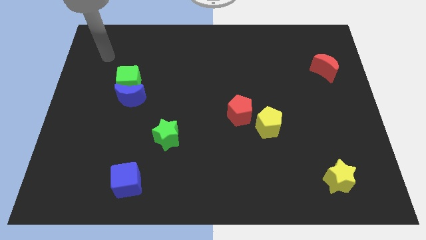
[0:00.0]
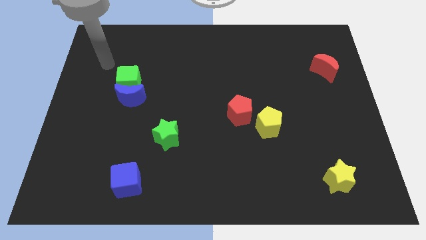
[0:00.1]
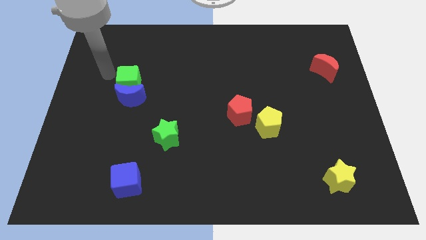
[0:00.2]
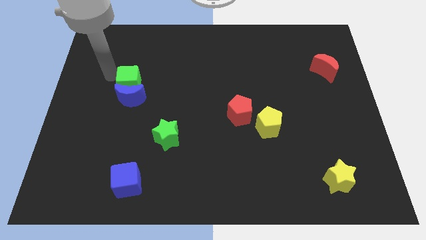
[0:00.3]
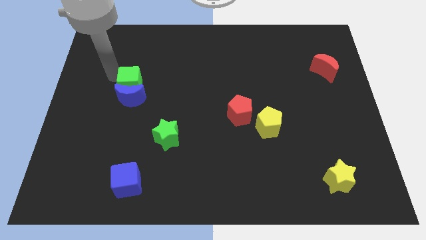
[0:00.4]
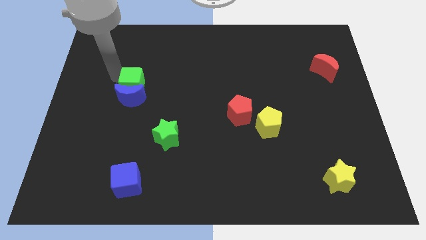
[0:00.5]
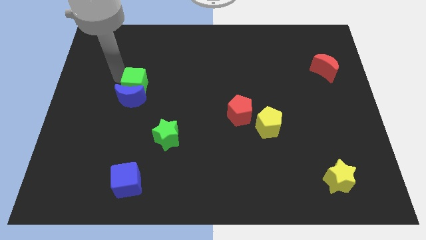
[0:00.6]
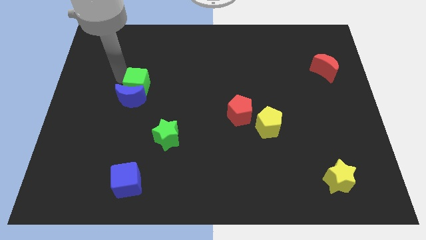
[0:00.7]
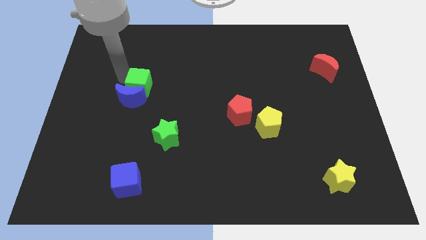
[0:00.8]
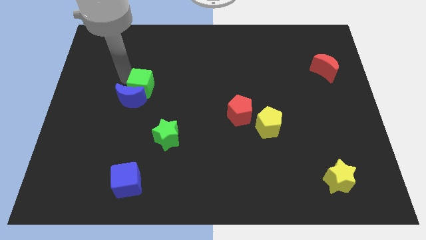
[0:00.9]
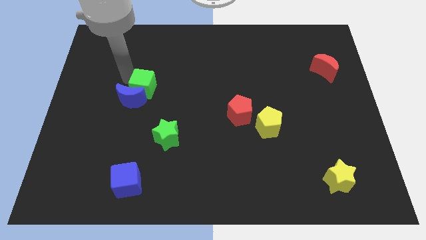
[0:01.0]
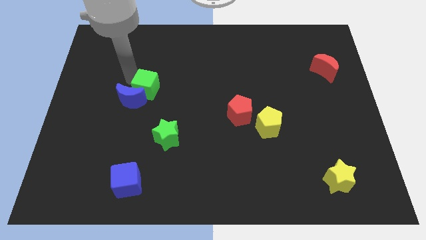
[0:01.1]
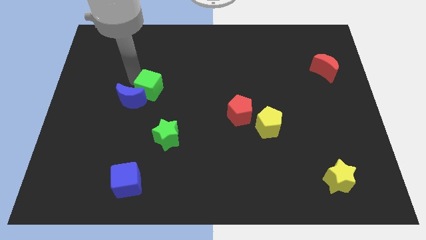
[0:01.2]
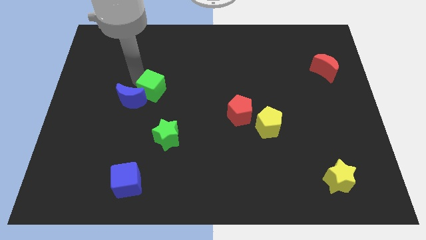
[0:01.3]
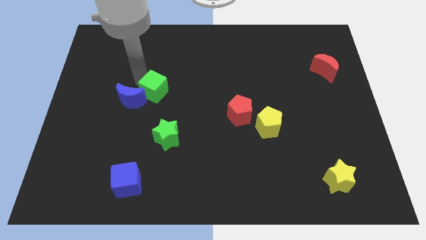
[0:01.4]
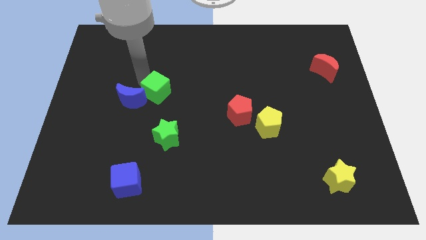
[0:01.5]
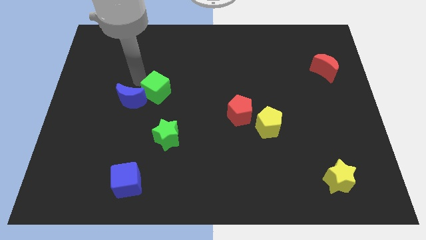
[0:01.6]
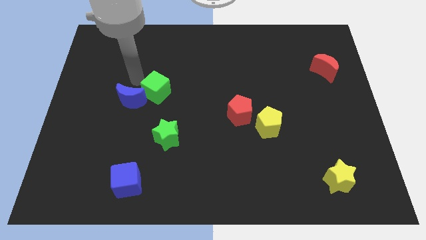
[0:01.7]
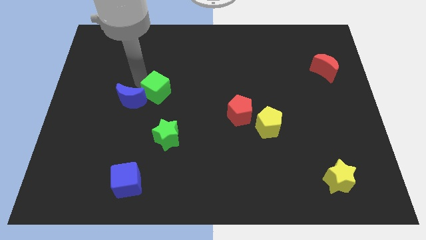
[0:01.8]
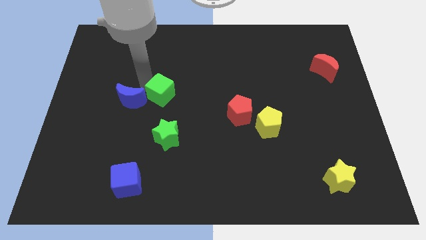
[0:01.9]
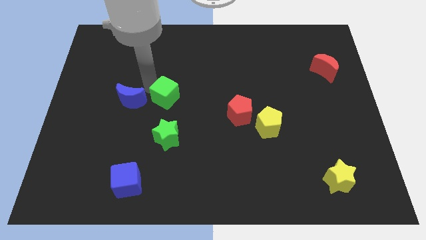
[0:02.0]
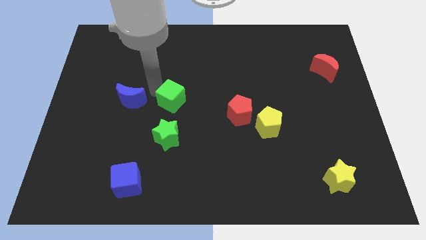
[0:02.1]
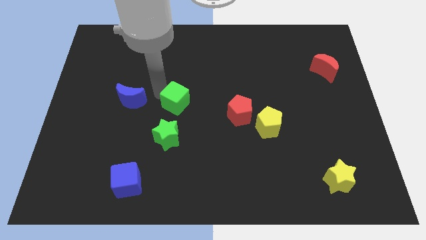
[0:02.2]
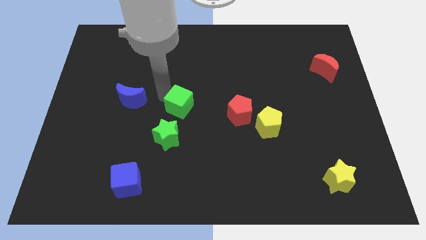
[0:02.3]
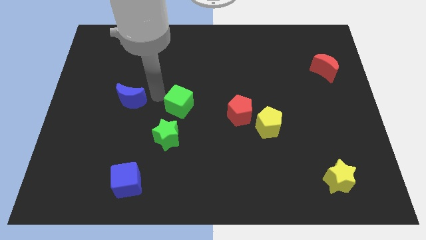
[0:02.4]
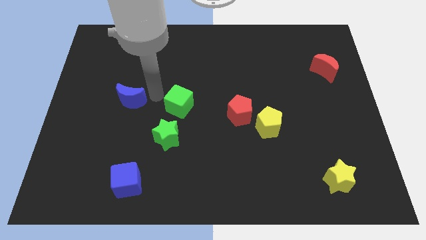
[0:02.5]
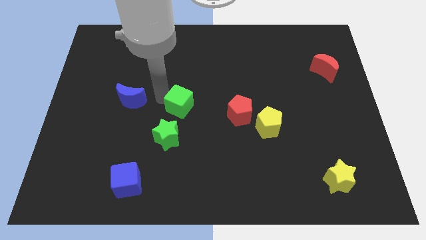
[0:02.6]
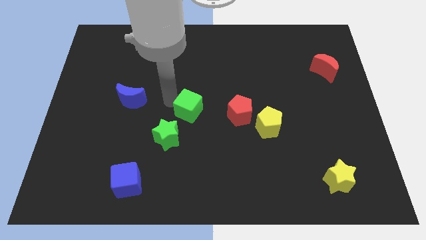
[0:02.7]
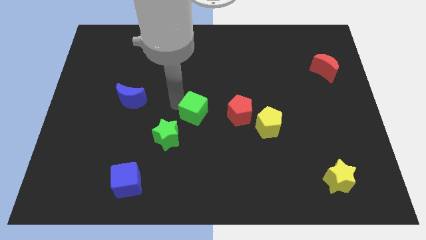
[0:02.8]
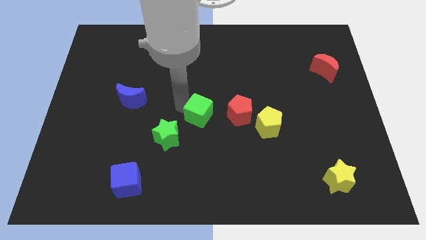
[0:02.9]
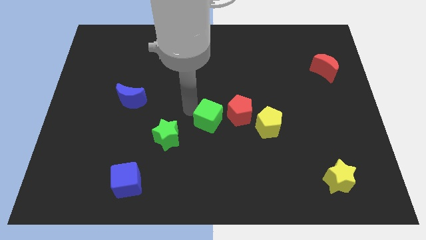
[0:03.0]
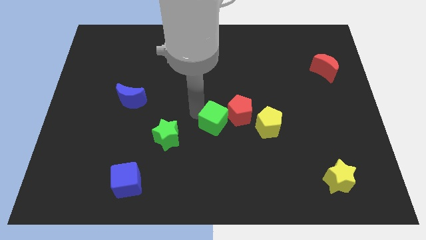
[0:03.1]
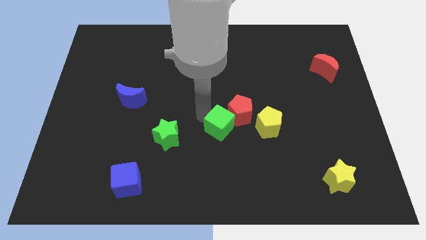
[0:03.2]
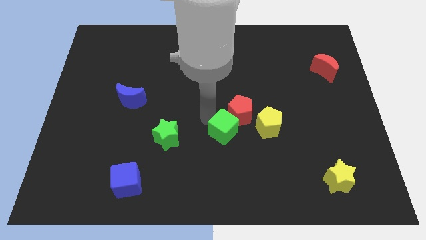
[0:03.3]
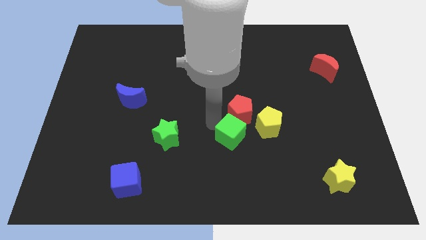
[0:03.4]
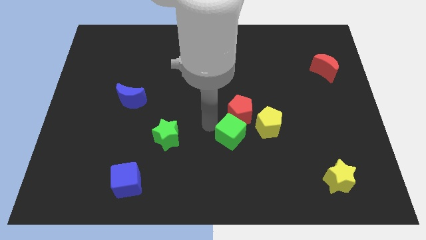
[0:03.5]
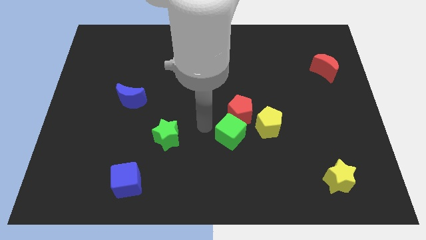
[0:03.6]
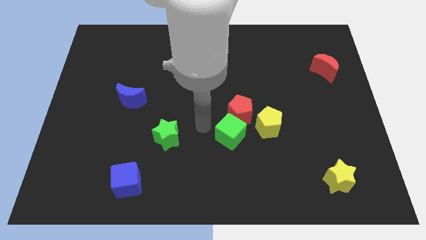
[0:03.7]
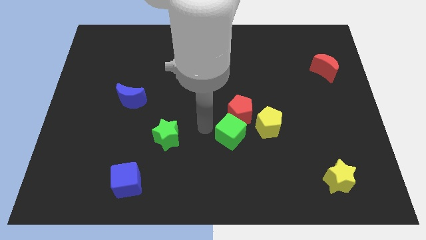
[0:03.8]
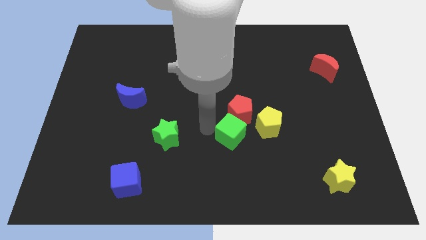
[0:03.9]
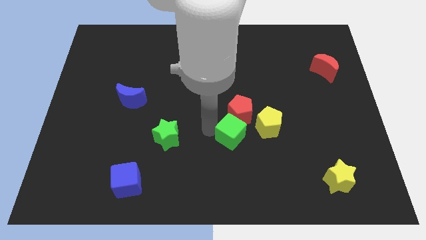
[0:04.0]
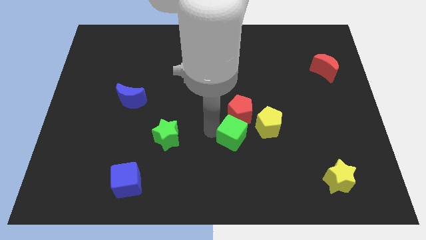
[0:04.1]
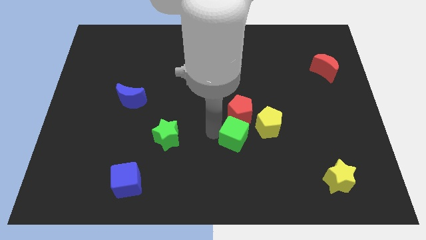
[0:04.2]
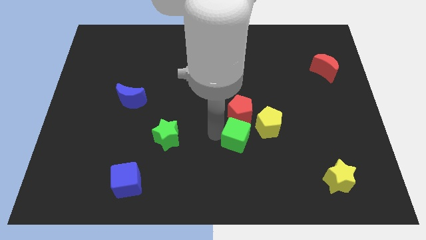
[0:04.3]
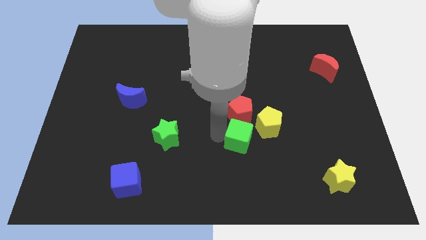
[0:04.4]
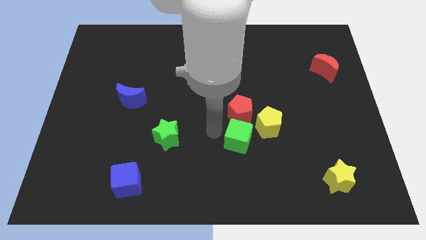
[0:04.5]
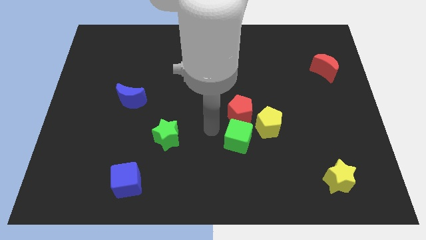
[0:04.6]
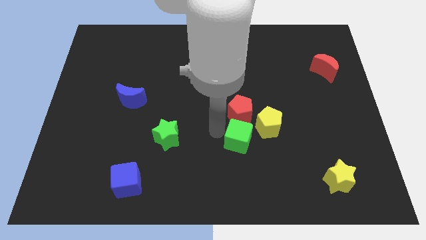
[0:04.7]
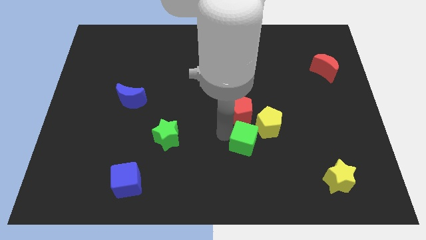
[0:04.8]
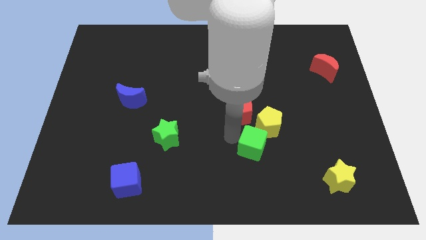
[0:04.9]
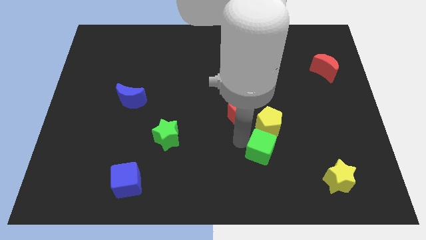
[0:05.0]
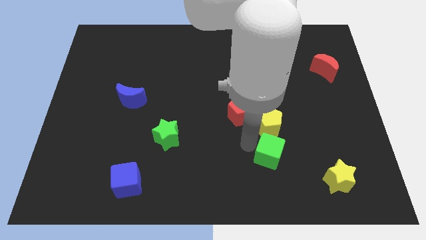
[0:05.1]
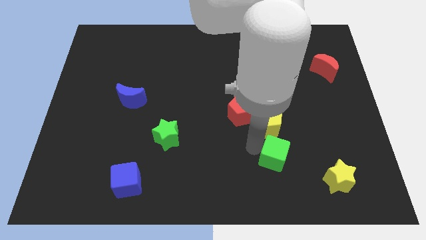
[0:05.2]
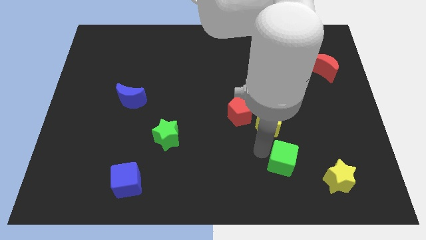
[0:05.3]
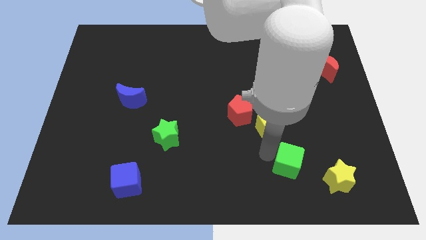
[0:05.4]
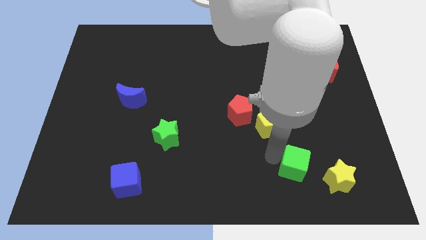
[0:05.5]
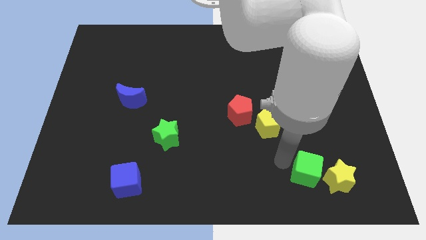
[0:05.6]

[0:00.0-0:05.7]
slide the green cube towards the yellow star

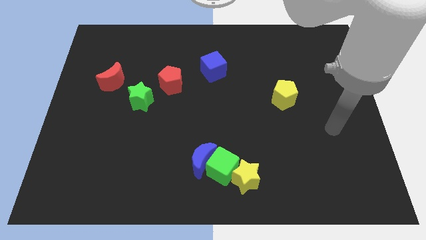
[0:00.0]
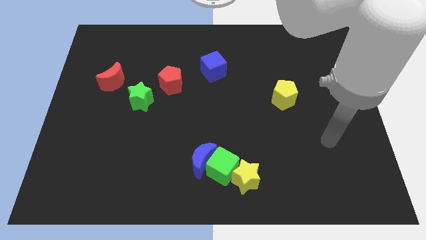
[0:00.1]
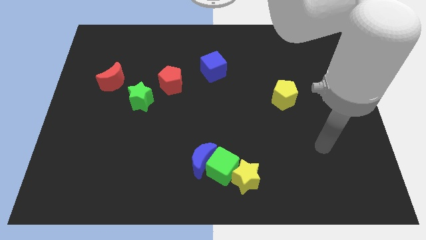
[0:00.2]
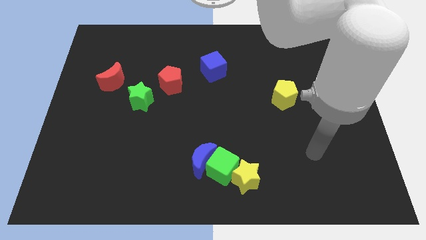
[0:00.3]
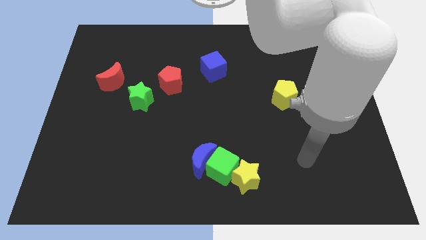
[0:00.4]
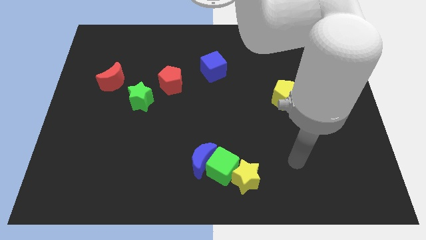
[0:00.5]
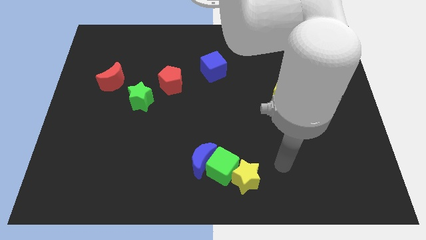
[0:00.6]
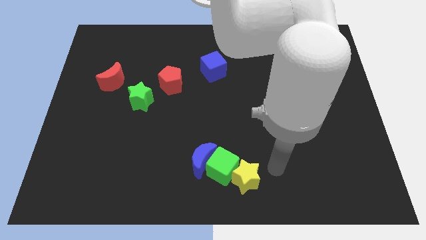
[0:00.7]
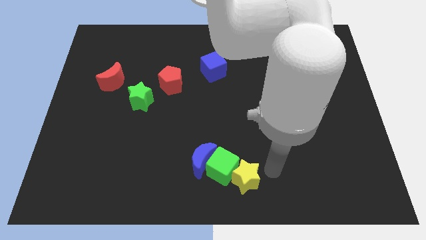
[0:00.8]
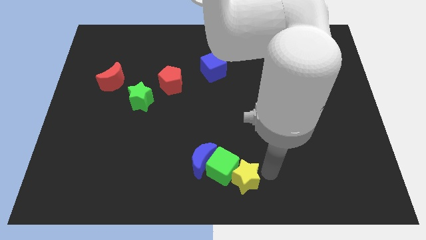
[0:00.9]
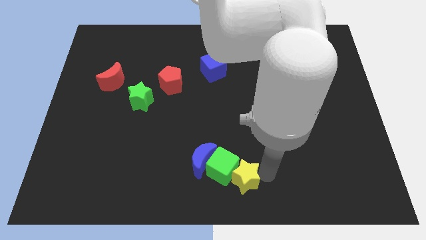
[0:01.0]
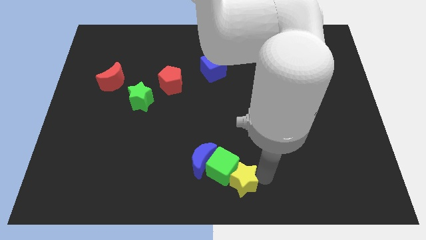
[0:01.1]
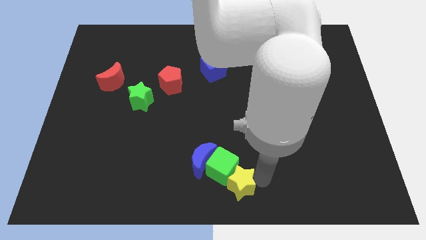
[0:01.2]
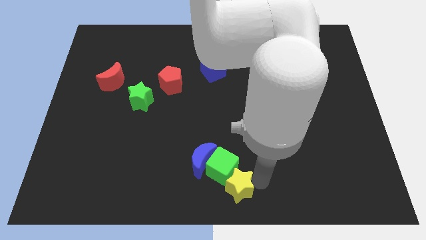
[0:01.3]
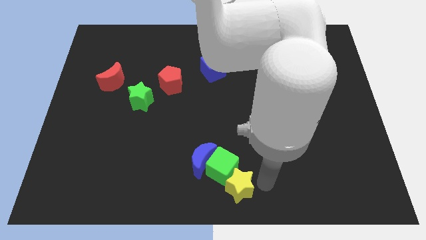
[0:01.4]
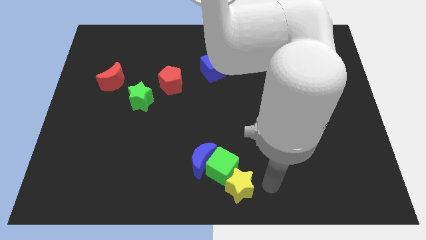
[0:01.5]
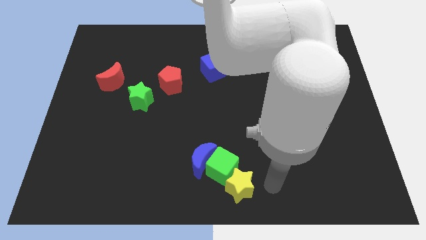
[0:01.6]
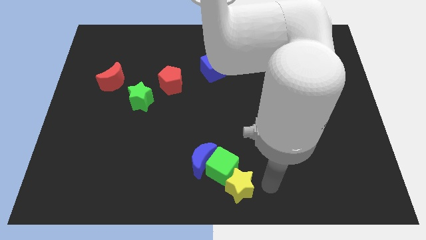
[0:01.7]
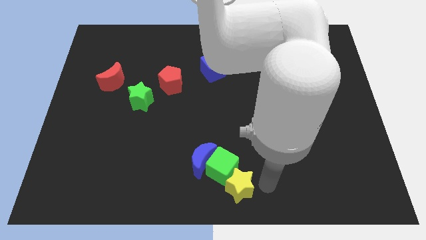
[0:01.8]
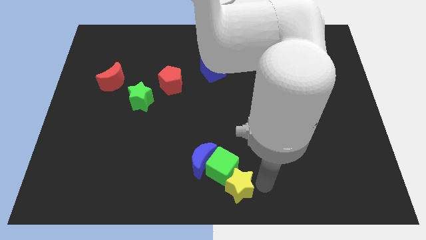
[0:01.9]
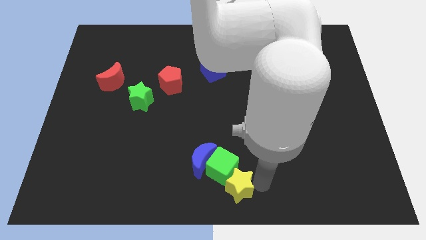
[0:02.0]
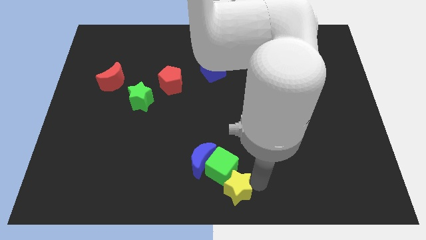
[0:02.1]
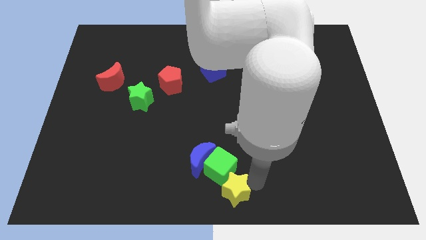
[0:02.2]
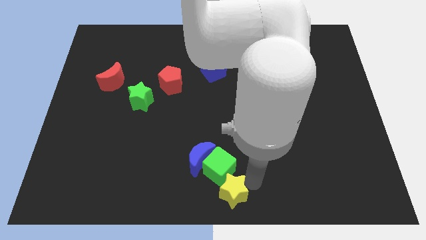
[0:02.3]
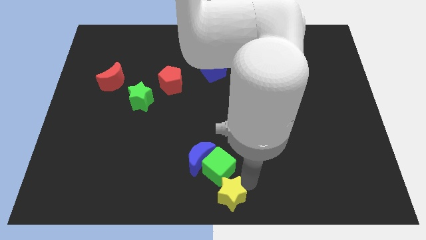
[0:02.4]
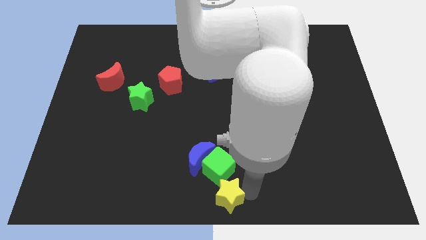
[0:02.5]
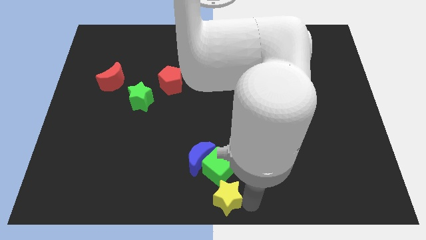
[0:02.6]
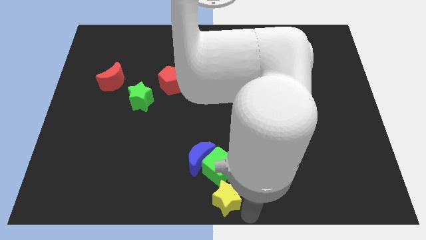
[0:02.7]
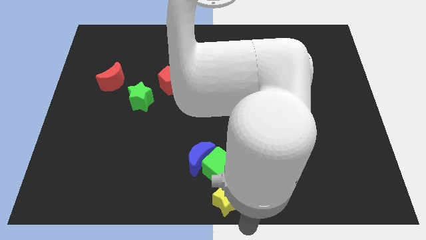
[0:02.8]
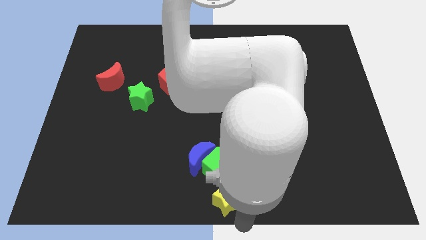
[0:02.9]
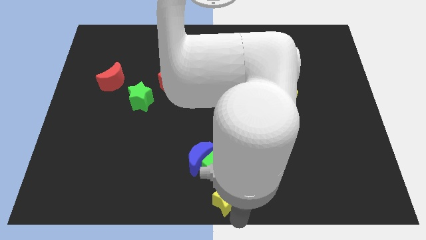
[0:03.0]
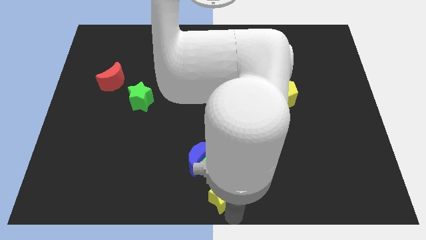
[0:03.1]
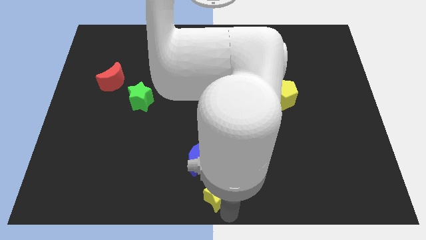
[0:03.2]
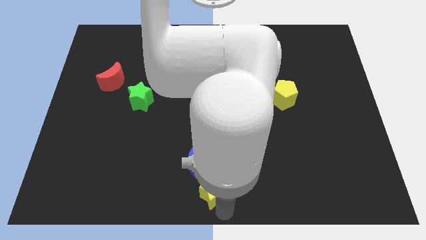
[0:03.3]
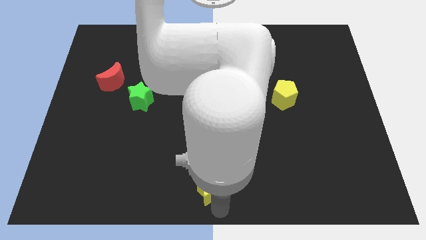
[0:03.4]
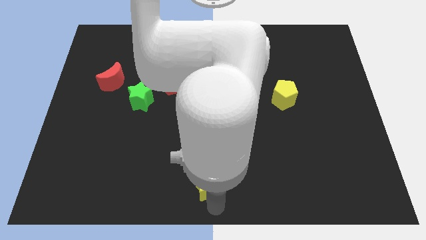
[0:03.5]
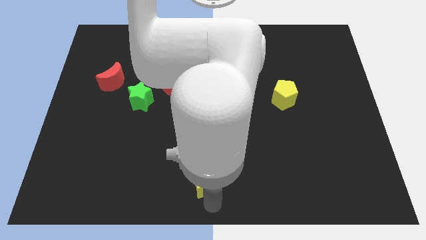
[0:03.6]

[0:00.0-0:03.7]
put the yellow star next to the blue moon
